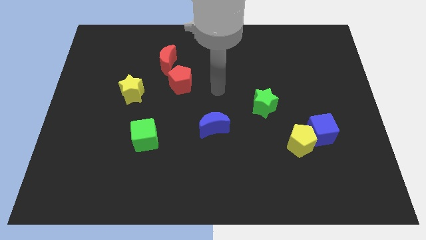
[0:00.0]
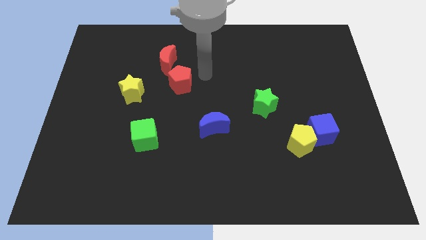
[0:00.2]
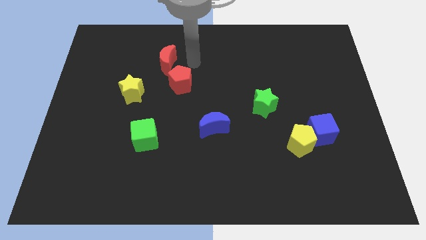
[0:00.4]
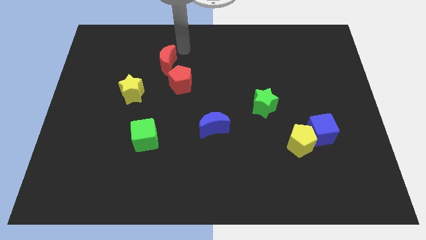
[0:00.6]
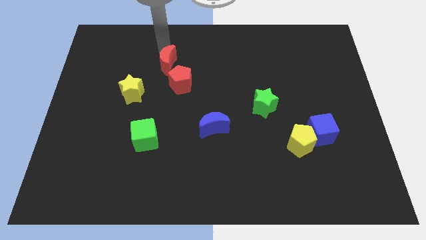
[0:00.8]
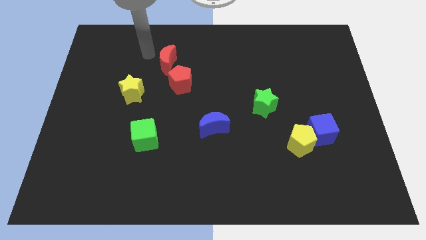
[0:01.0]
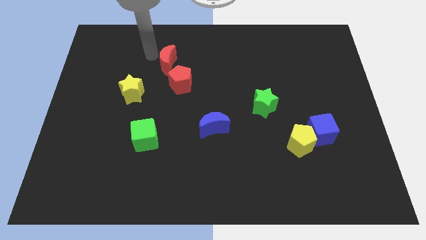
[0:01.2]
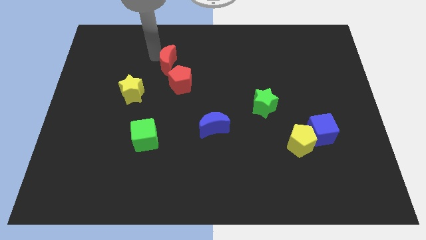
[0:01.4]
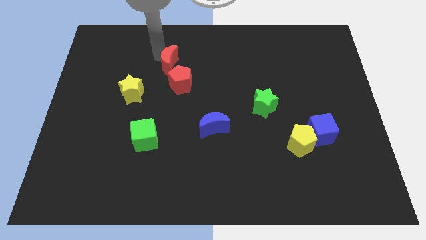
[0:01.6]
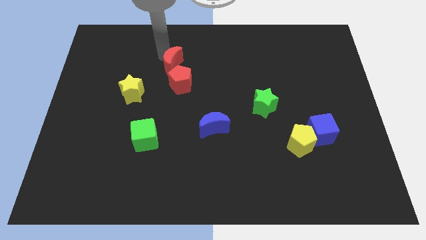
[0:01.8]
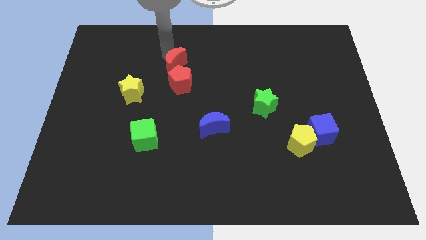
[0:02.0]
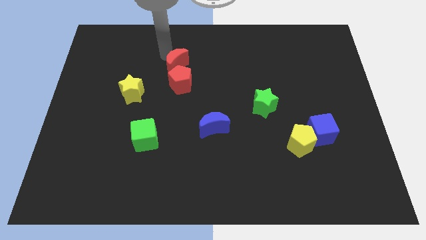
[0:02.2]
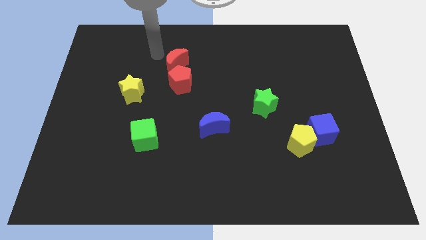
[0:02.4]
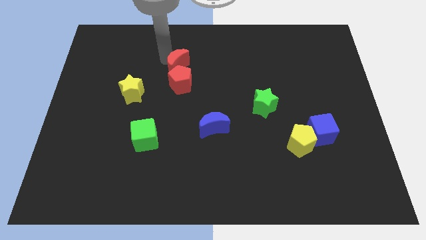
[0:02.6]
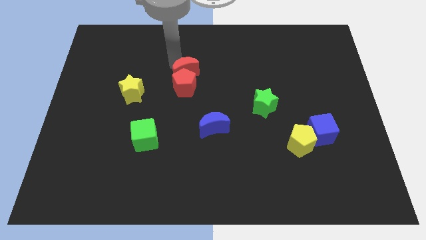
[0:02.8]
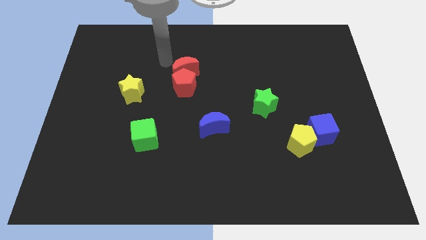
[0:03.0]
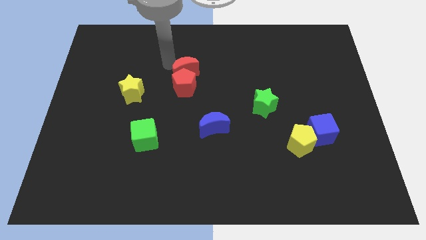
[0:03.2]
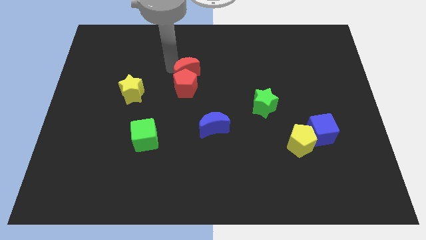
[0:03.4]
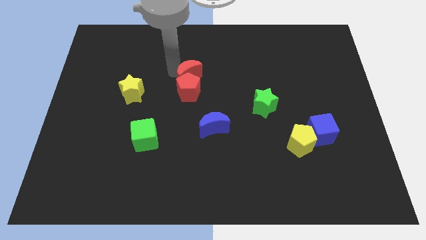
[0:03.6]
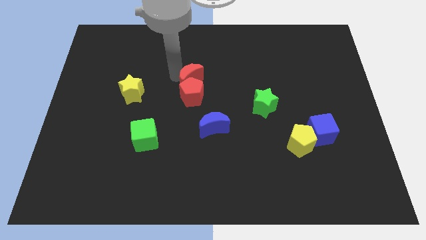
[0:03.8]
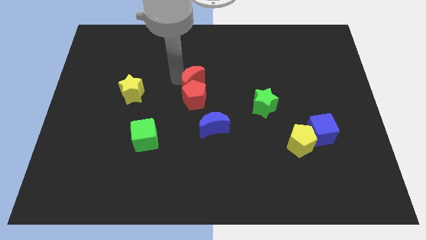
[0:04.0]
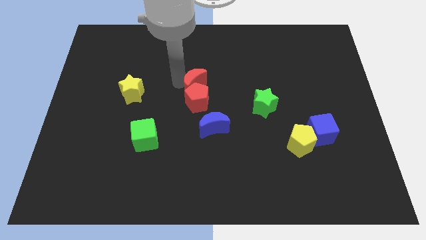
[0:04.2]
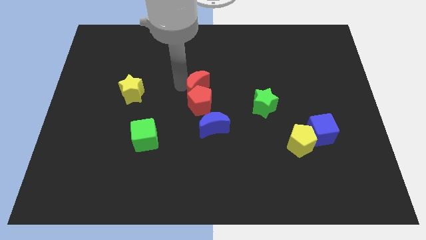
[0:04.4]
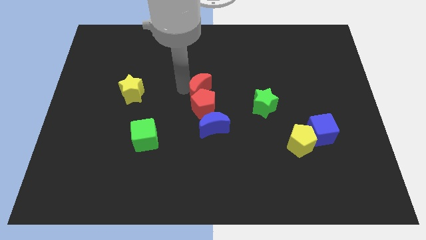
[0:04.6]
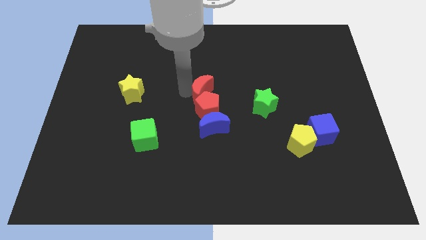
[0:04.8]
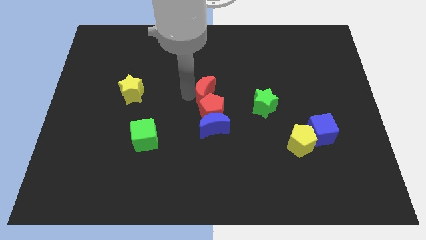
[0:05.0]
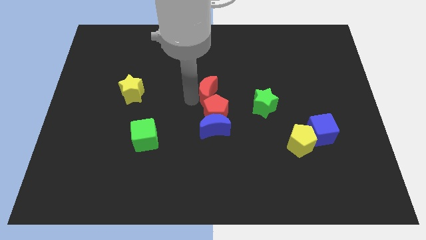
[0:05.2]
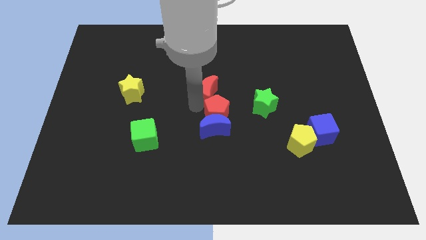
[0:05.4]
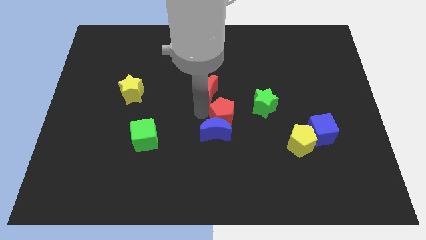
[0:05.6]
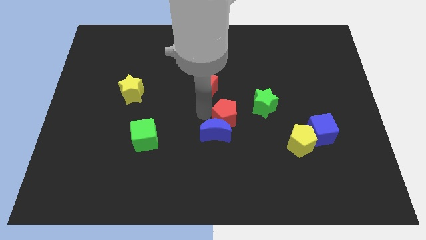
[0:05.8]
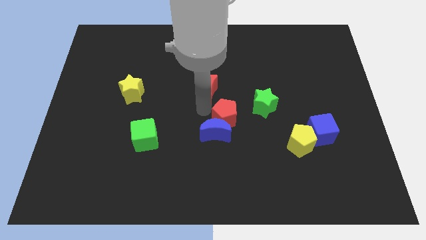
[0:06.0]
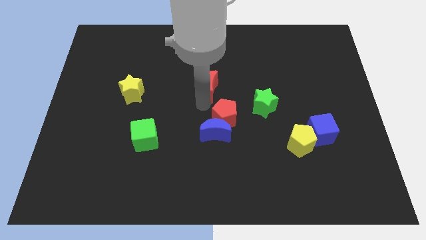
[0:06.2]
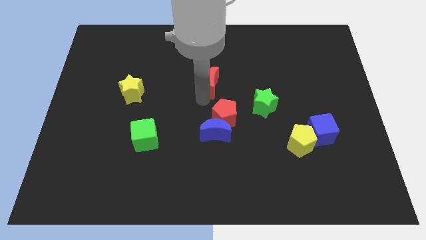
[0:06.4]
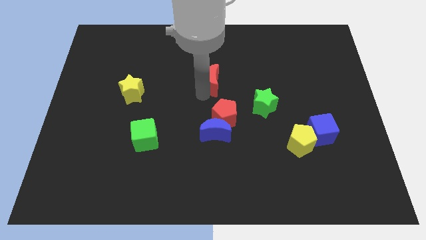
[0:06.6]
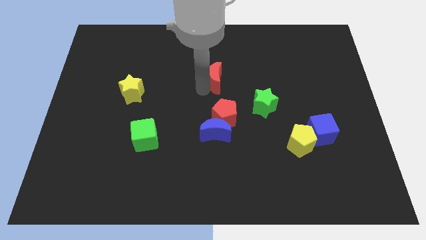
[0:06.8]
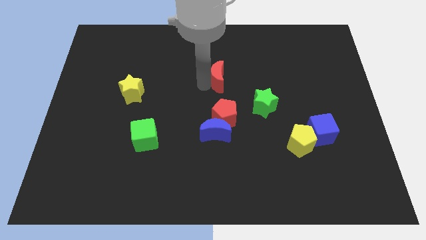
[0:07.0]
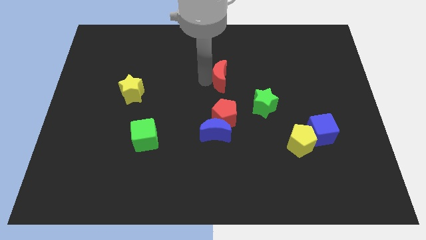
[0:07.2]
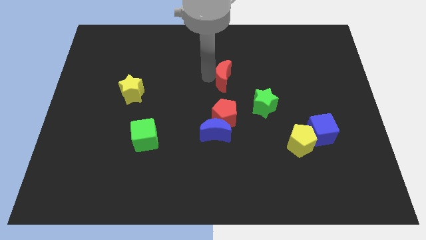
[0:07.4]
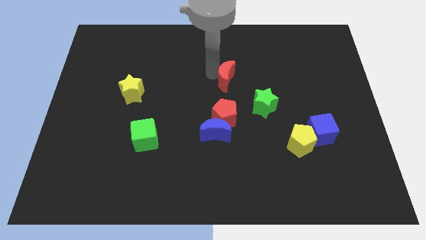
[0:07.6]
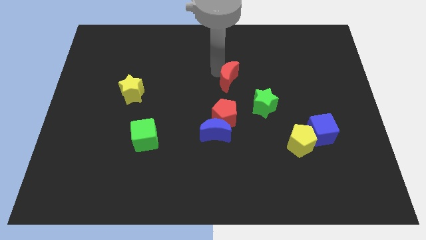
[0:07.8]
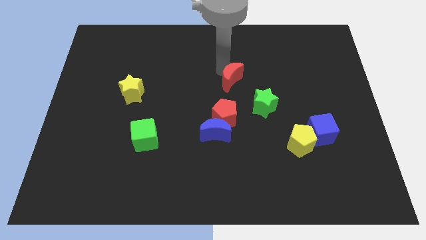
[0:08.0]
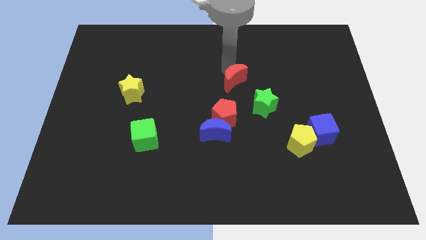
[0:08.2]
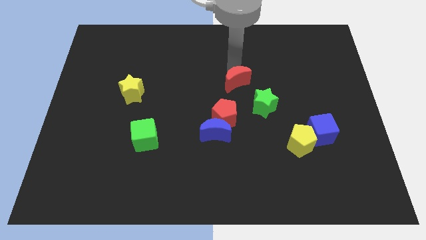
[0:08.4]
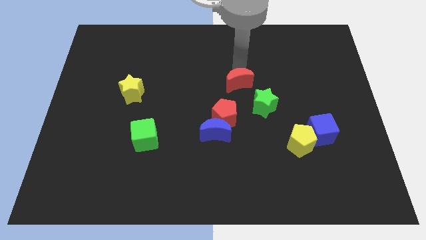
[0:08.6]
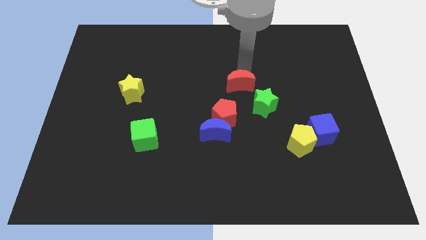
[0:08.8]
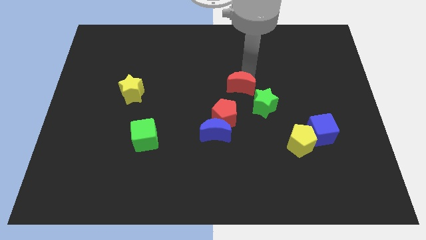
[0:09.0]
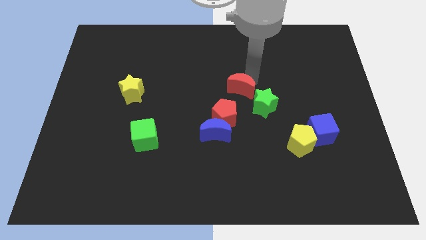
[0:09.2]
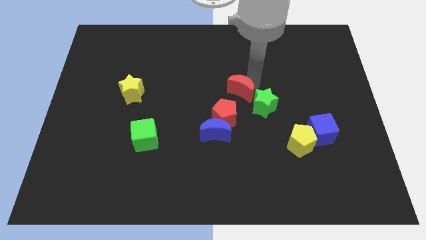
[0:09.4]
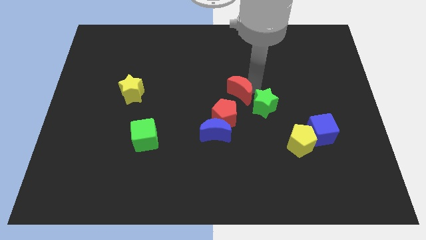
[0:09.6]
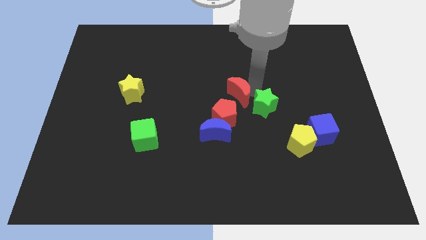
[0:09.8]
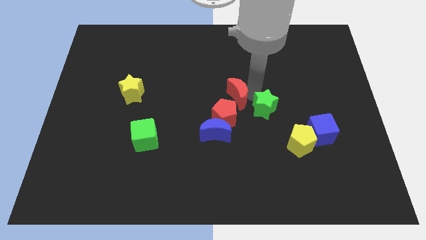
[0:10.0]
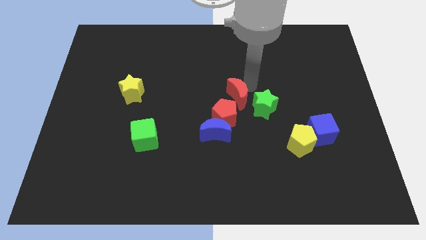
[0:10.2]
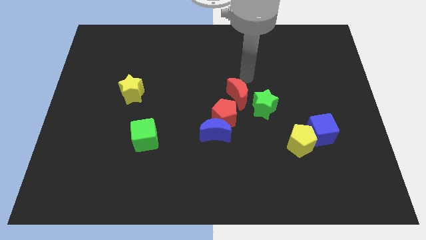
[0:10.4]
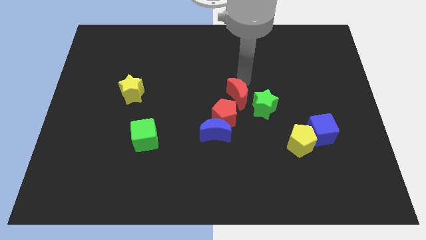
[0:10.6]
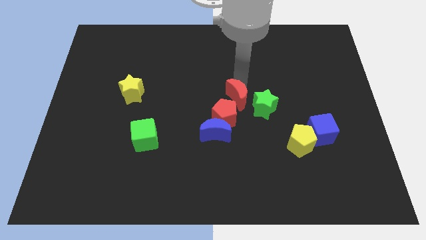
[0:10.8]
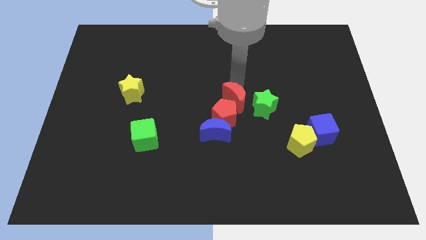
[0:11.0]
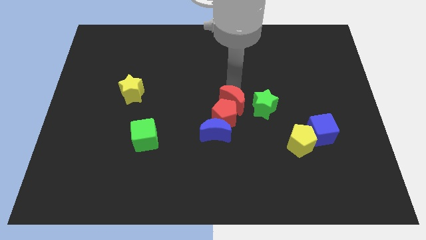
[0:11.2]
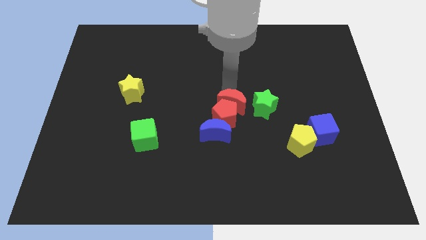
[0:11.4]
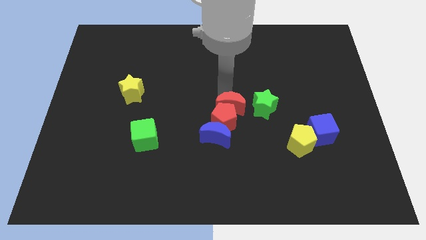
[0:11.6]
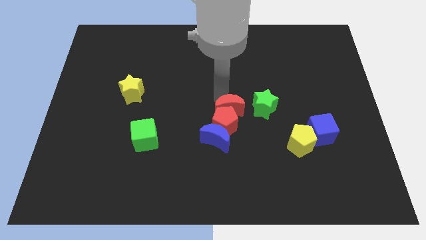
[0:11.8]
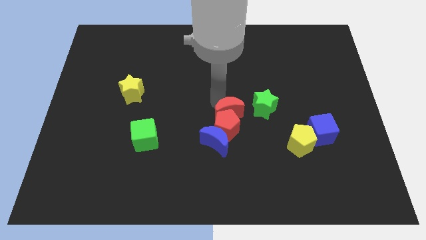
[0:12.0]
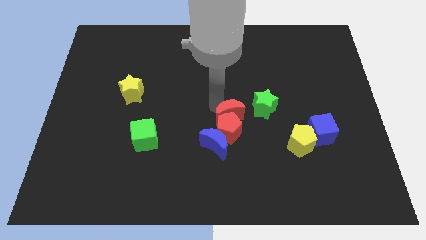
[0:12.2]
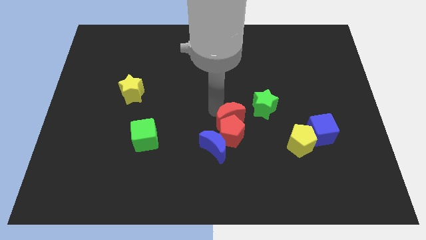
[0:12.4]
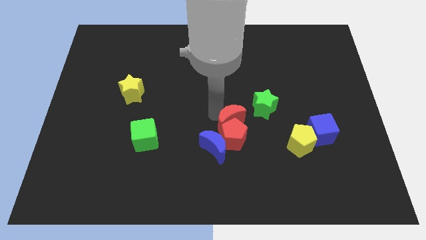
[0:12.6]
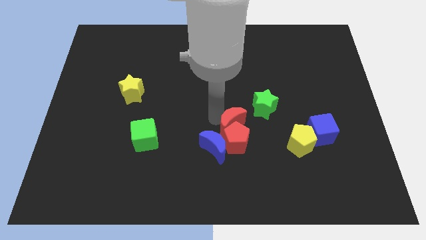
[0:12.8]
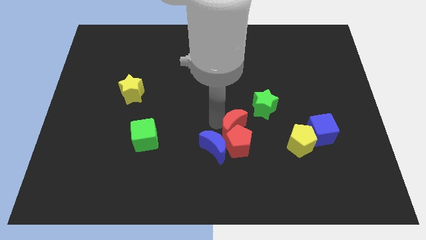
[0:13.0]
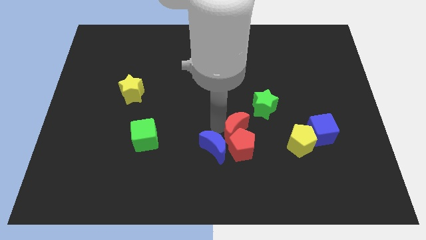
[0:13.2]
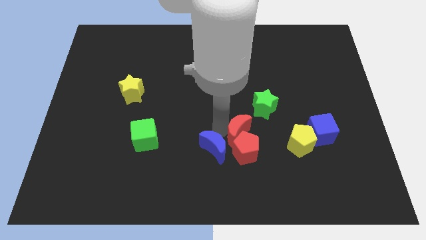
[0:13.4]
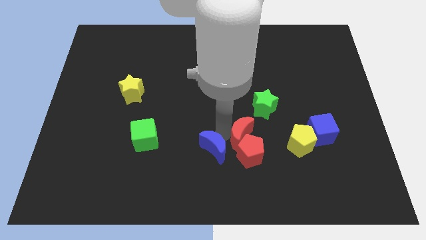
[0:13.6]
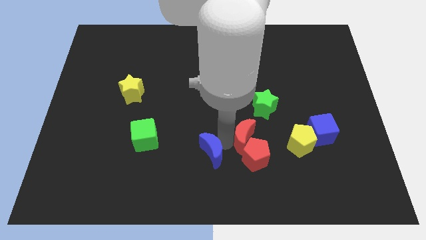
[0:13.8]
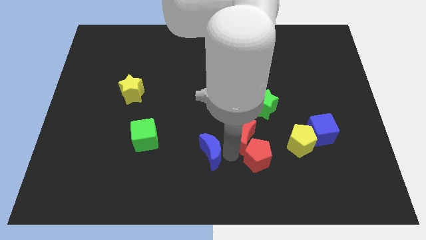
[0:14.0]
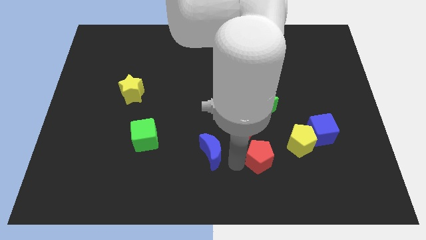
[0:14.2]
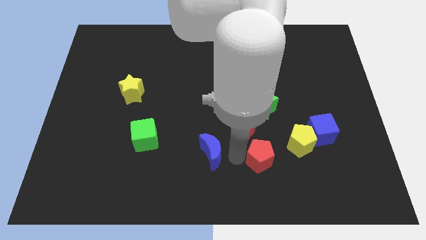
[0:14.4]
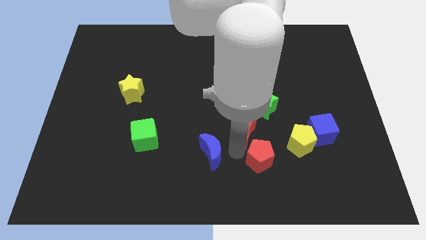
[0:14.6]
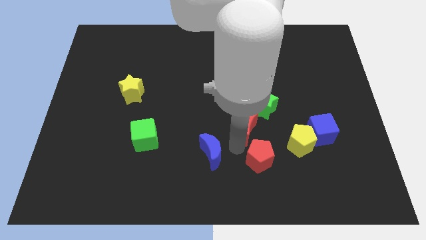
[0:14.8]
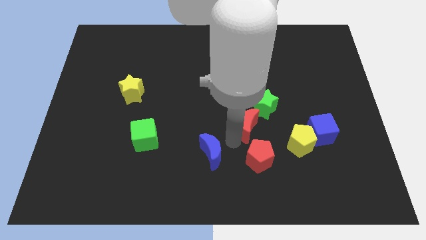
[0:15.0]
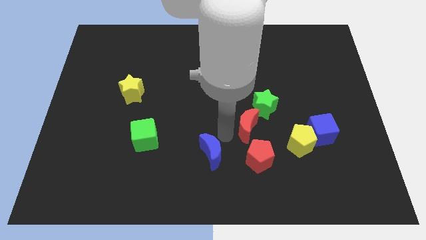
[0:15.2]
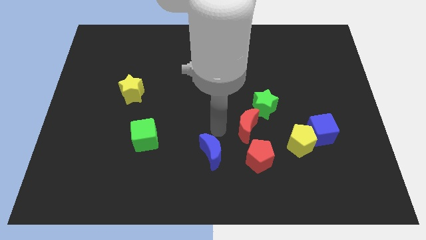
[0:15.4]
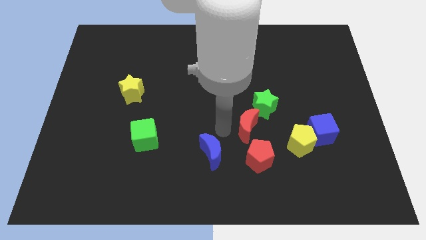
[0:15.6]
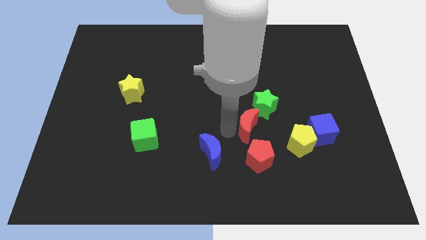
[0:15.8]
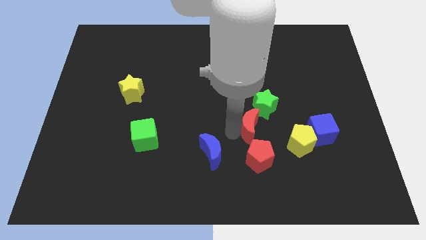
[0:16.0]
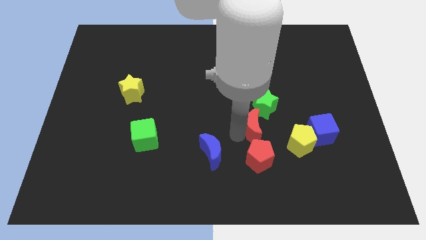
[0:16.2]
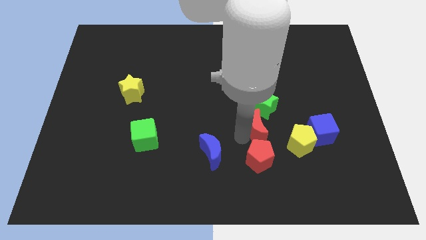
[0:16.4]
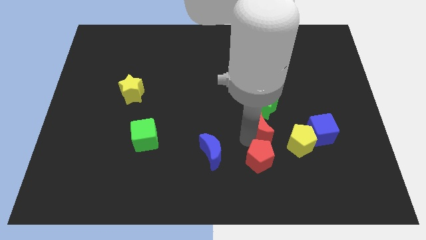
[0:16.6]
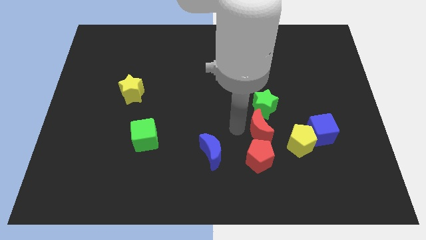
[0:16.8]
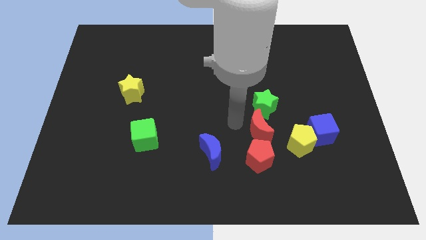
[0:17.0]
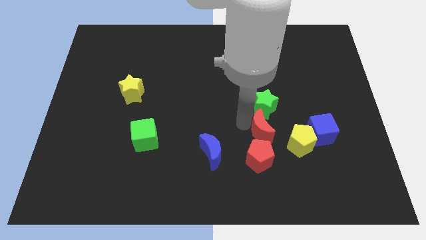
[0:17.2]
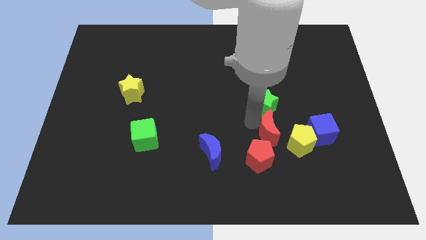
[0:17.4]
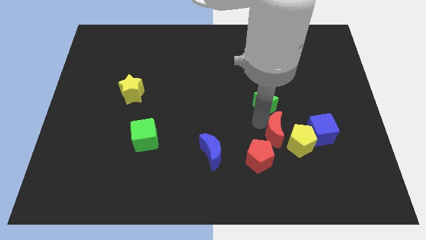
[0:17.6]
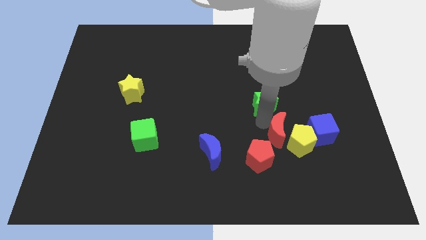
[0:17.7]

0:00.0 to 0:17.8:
slide the red moon towards the yellow pentagon
